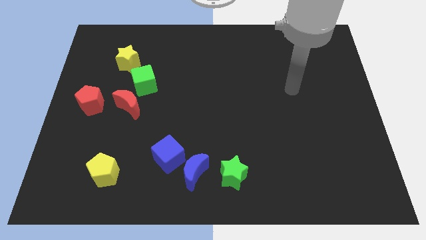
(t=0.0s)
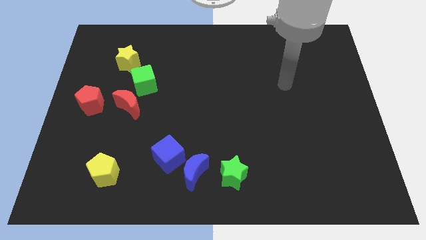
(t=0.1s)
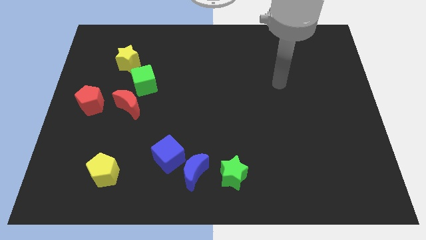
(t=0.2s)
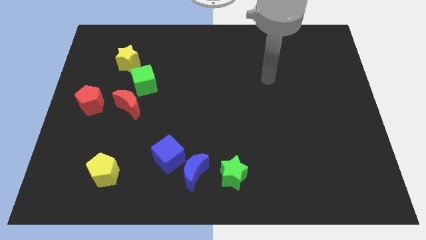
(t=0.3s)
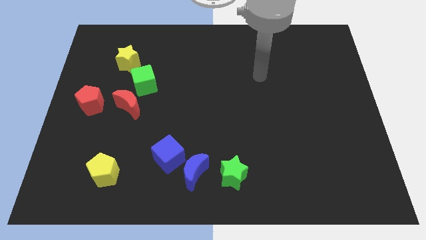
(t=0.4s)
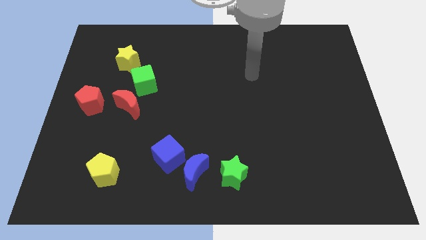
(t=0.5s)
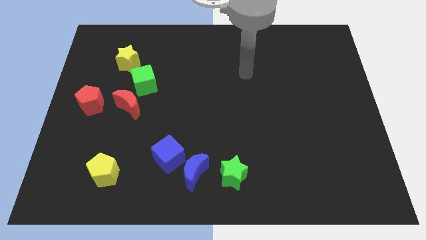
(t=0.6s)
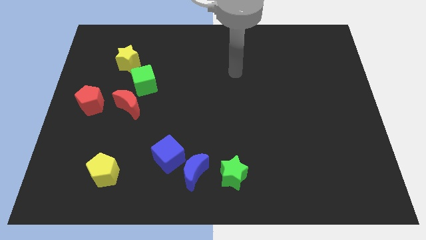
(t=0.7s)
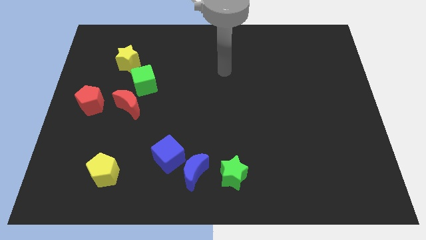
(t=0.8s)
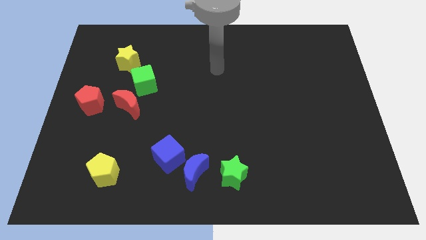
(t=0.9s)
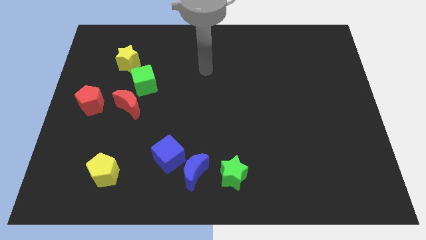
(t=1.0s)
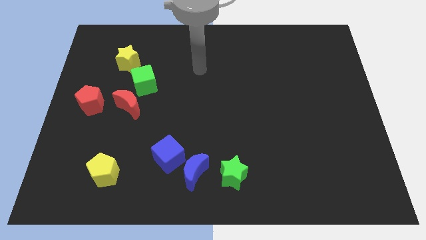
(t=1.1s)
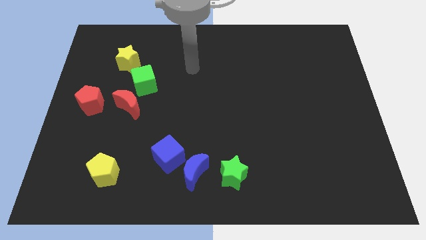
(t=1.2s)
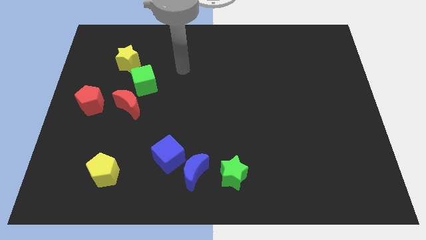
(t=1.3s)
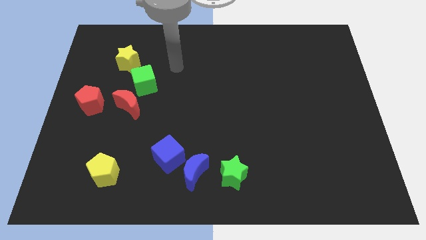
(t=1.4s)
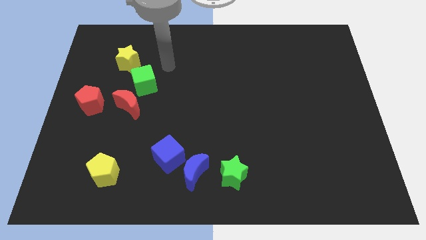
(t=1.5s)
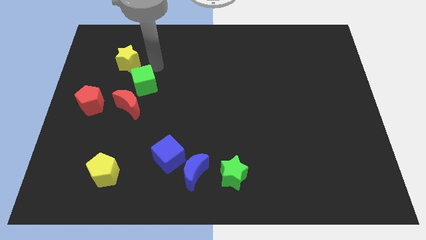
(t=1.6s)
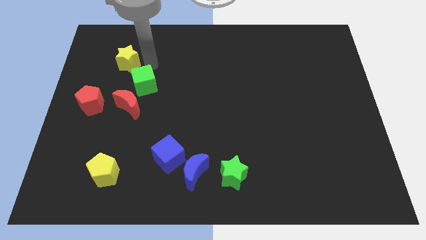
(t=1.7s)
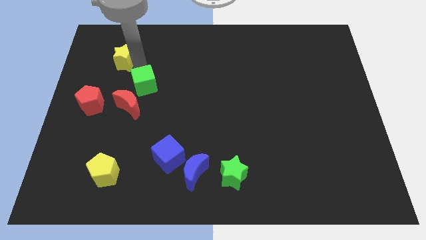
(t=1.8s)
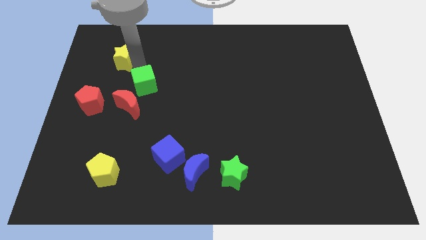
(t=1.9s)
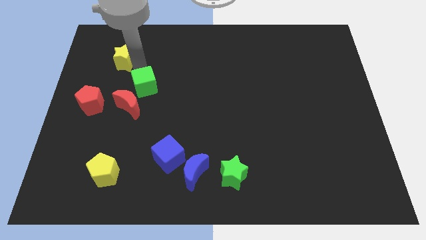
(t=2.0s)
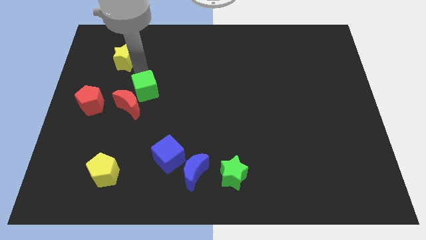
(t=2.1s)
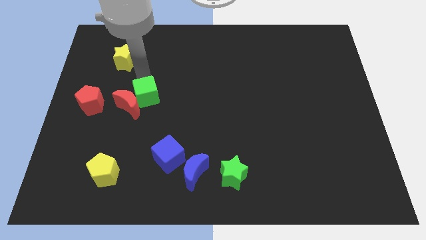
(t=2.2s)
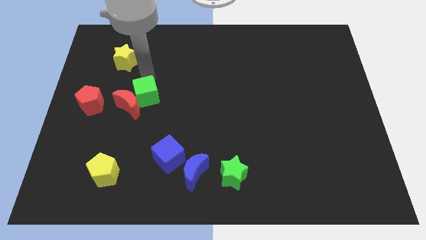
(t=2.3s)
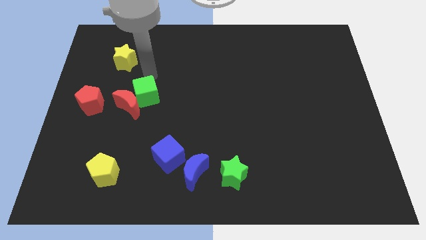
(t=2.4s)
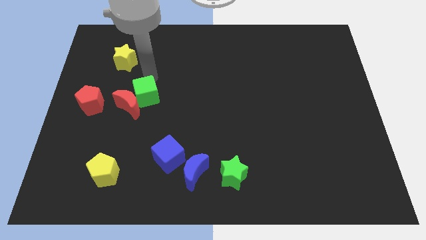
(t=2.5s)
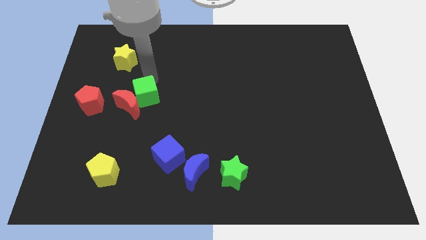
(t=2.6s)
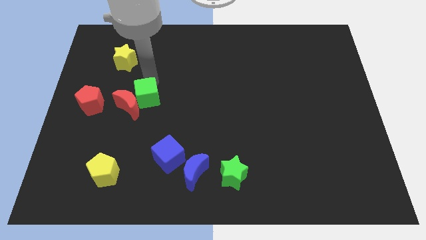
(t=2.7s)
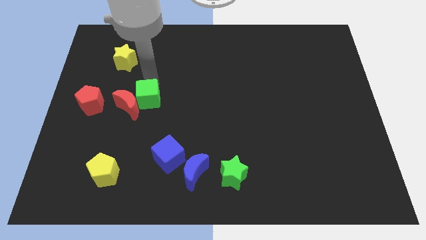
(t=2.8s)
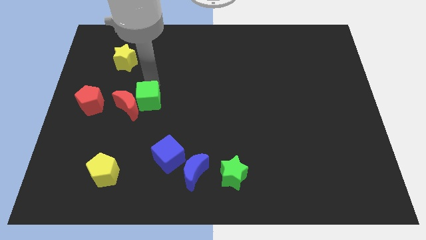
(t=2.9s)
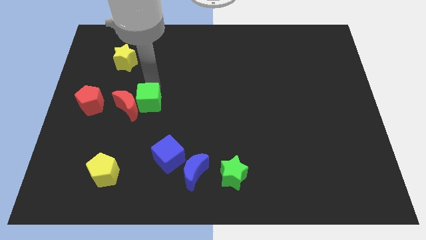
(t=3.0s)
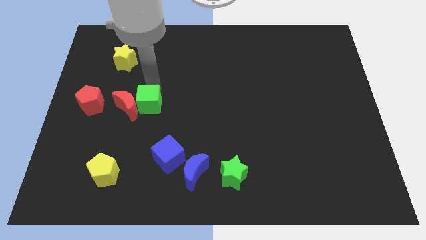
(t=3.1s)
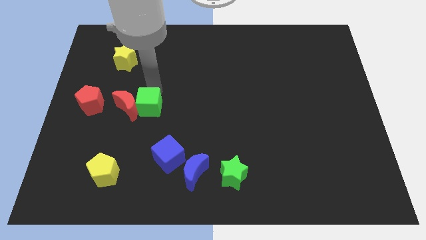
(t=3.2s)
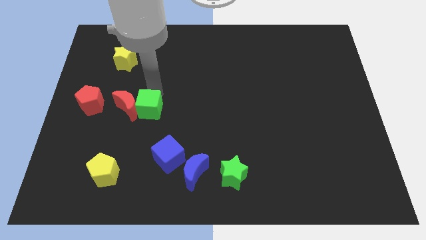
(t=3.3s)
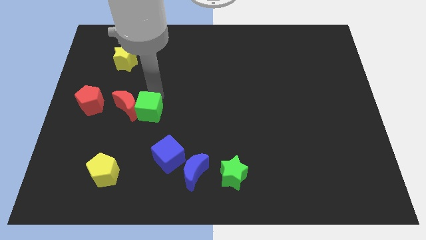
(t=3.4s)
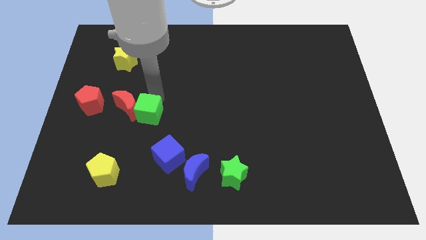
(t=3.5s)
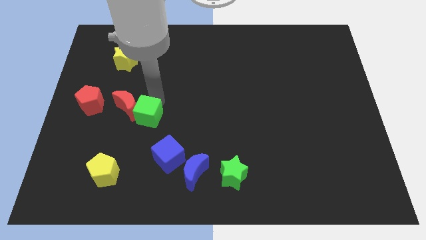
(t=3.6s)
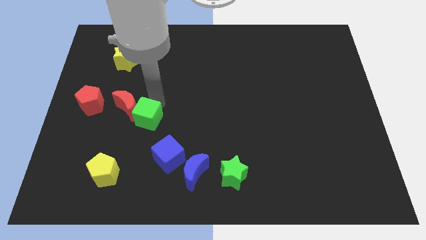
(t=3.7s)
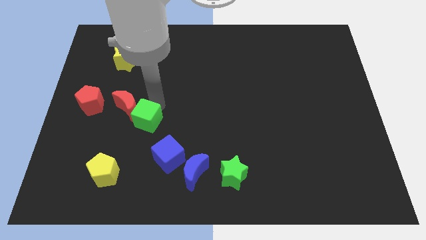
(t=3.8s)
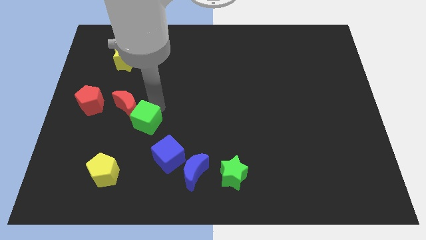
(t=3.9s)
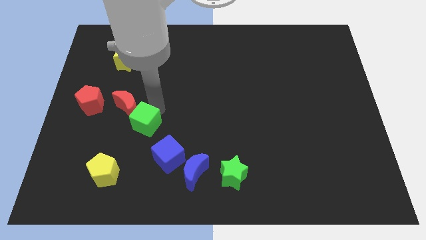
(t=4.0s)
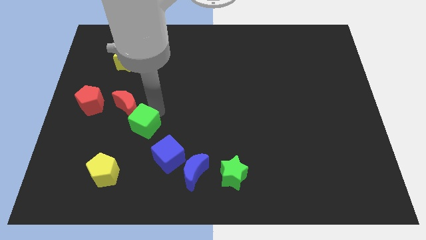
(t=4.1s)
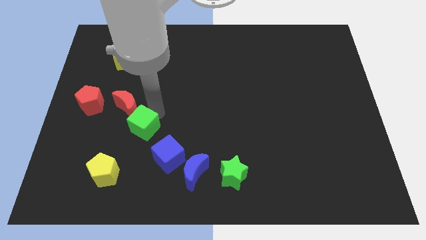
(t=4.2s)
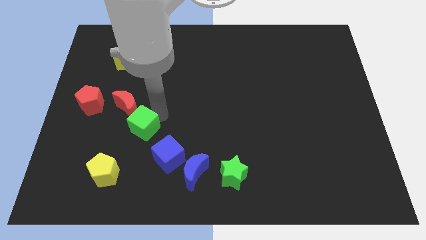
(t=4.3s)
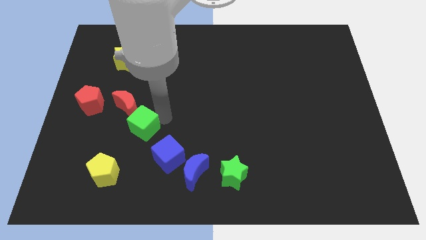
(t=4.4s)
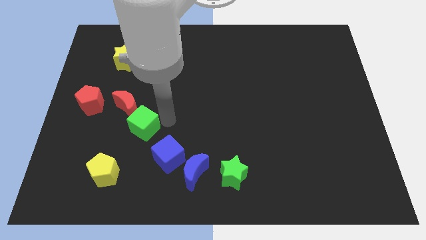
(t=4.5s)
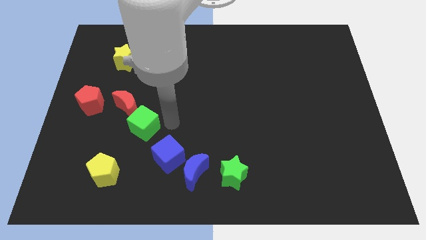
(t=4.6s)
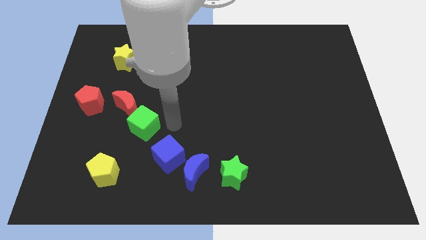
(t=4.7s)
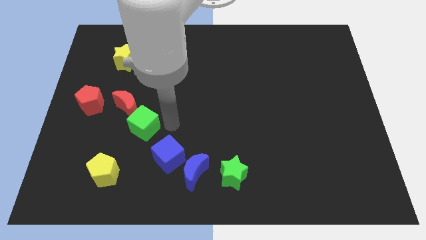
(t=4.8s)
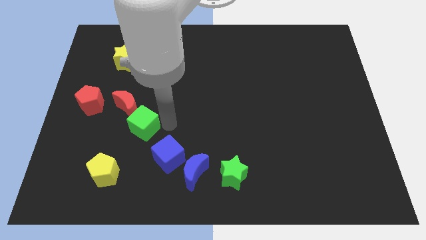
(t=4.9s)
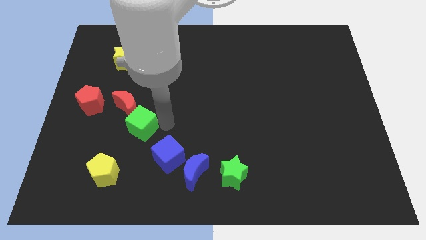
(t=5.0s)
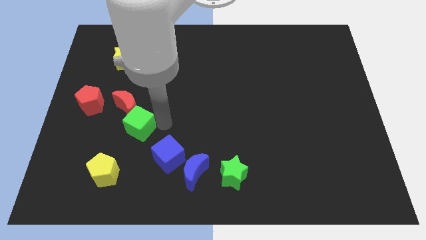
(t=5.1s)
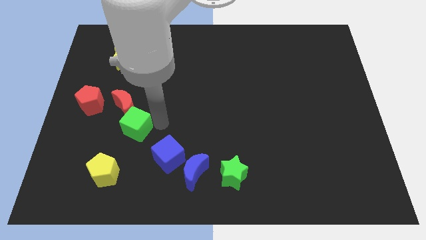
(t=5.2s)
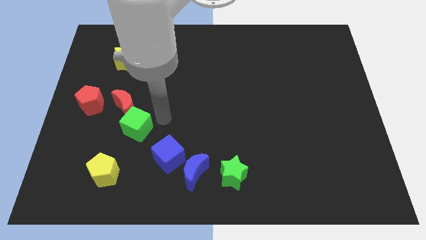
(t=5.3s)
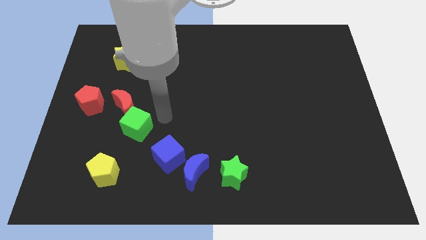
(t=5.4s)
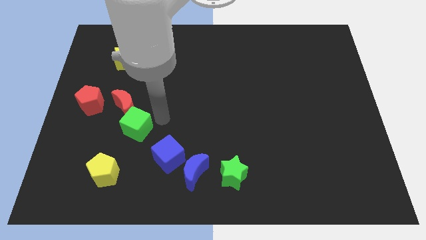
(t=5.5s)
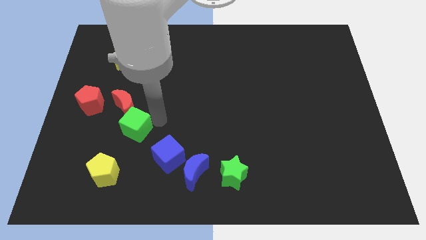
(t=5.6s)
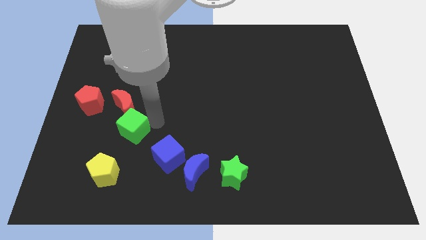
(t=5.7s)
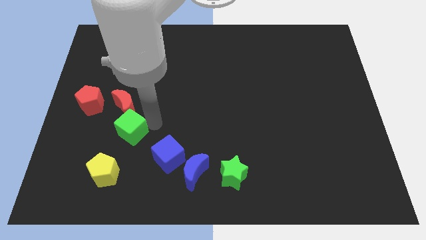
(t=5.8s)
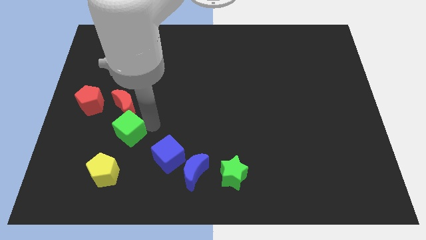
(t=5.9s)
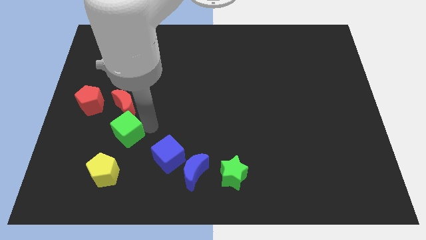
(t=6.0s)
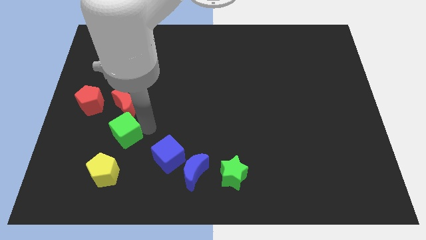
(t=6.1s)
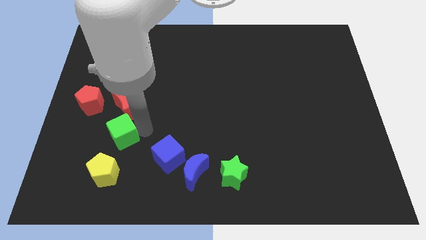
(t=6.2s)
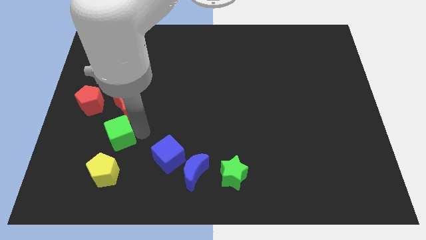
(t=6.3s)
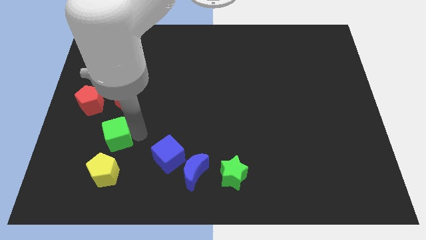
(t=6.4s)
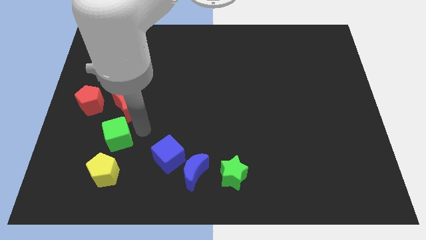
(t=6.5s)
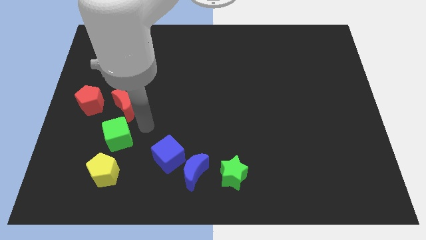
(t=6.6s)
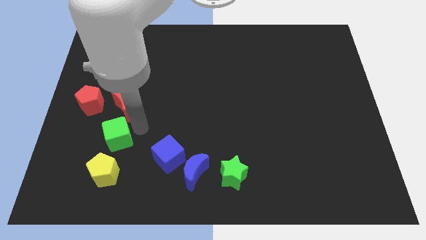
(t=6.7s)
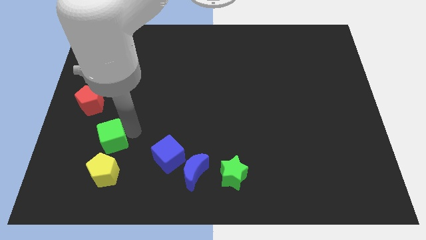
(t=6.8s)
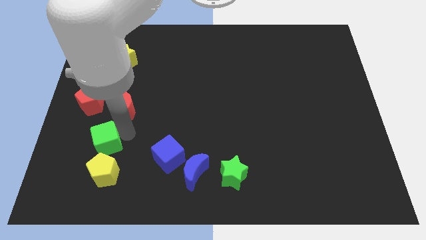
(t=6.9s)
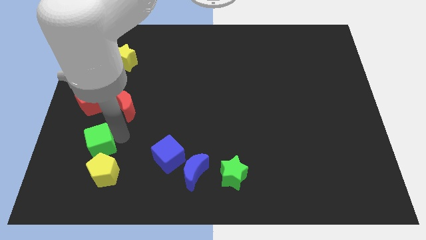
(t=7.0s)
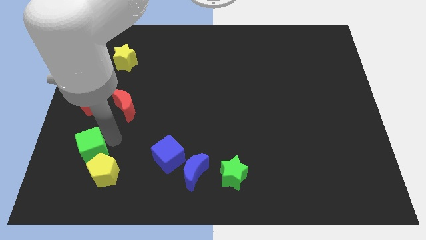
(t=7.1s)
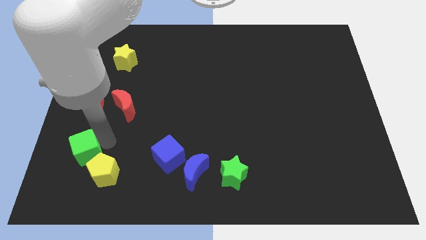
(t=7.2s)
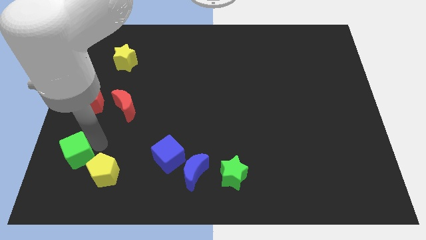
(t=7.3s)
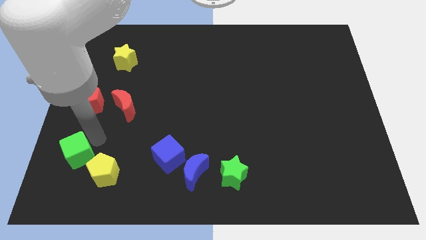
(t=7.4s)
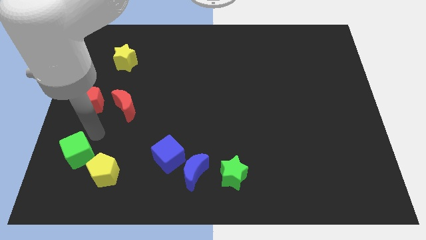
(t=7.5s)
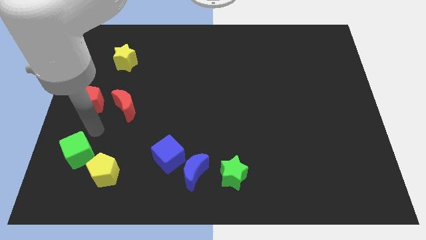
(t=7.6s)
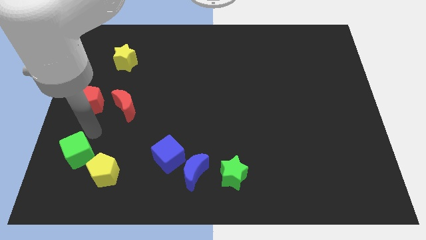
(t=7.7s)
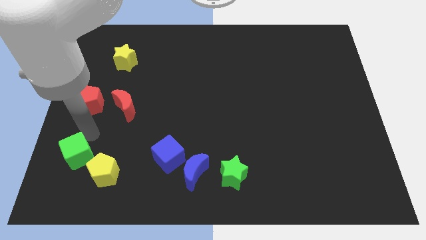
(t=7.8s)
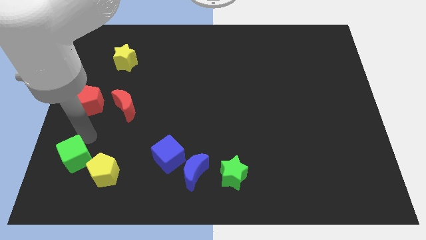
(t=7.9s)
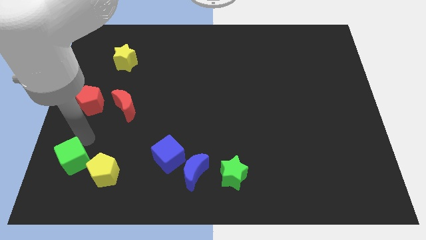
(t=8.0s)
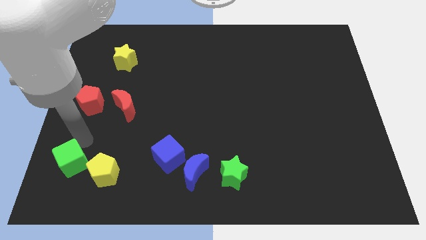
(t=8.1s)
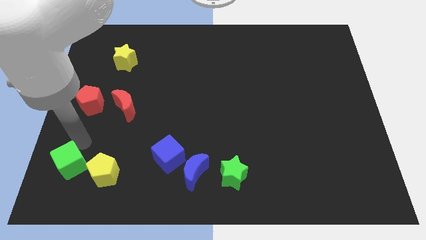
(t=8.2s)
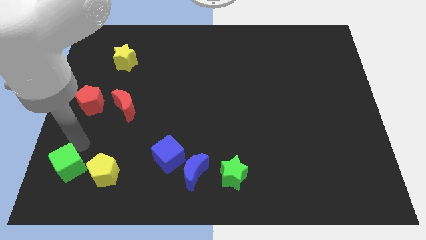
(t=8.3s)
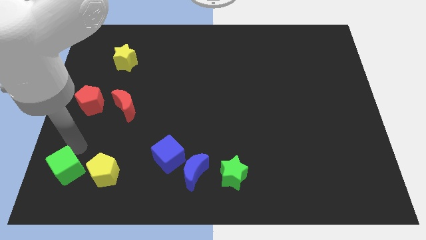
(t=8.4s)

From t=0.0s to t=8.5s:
put the green cube to the bottom left
